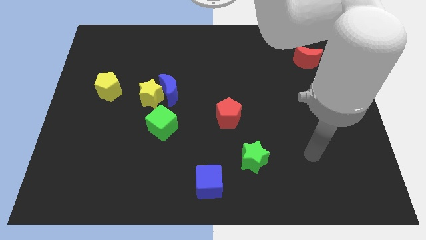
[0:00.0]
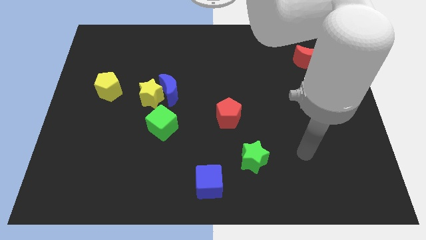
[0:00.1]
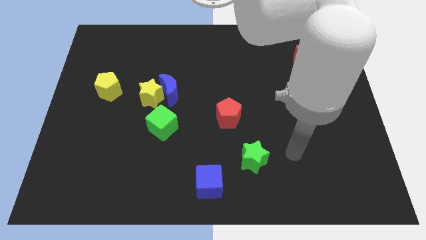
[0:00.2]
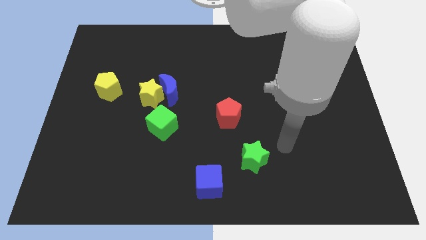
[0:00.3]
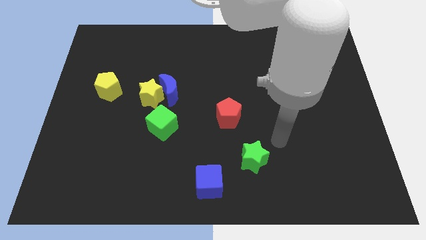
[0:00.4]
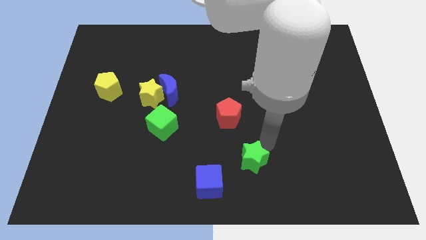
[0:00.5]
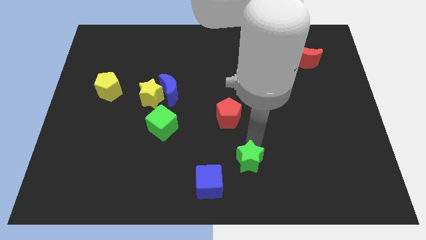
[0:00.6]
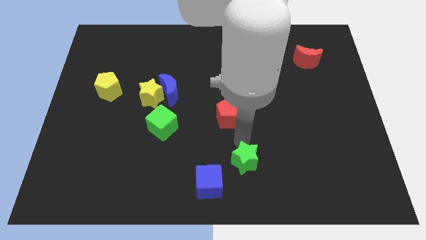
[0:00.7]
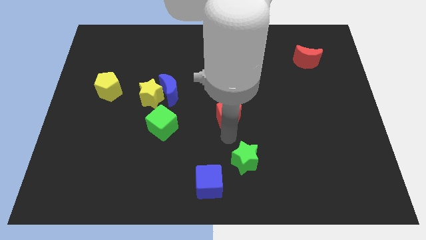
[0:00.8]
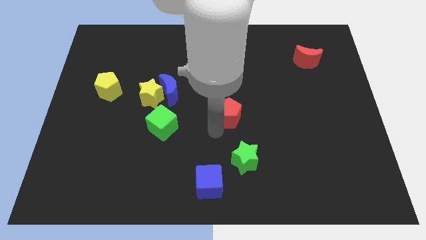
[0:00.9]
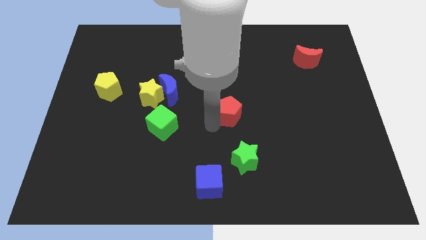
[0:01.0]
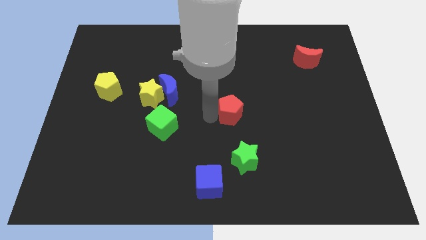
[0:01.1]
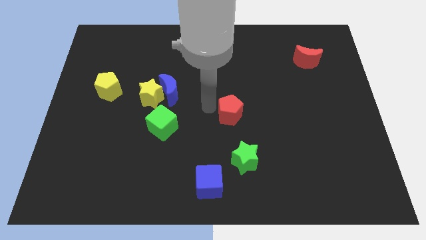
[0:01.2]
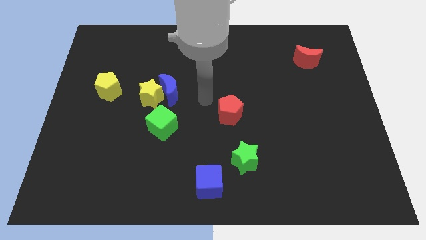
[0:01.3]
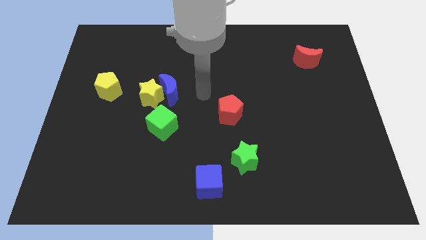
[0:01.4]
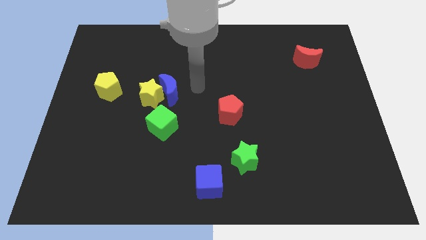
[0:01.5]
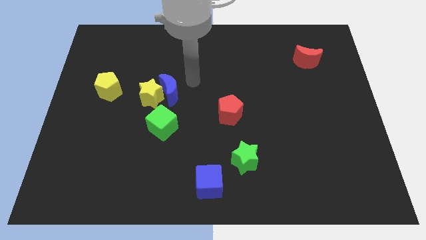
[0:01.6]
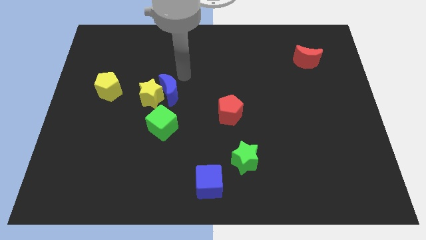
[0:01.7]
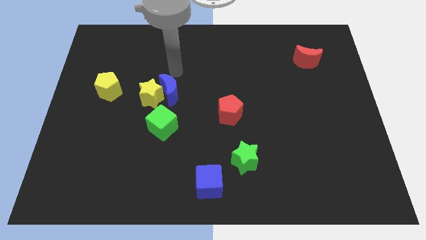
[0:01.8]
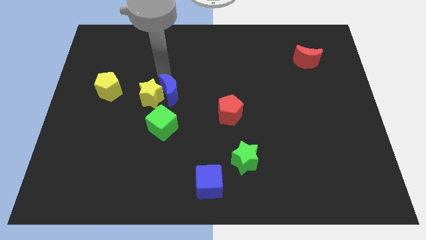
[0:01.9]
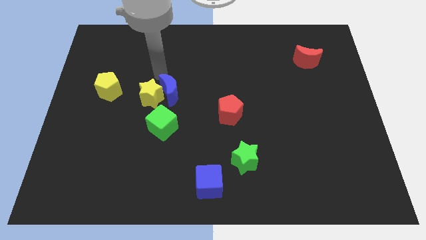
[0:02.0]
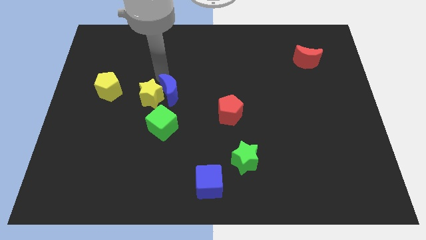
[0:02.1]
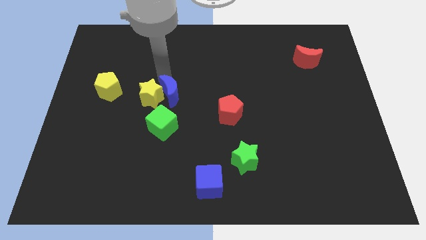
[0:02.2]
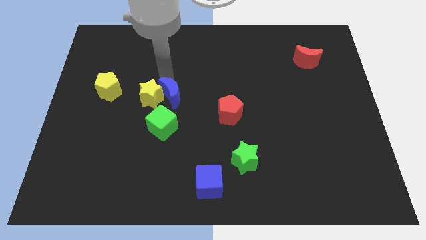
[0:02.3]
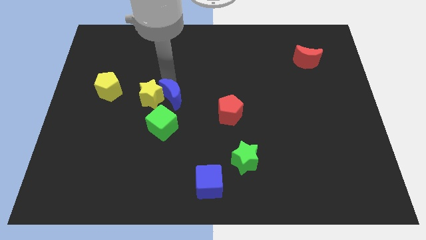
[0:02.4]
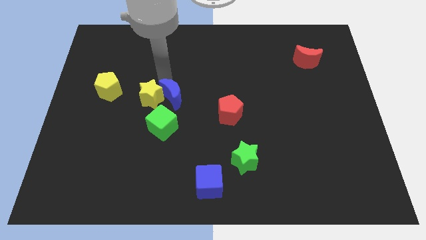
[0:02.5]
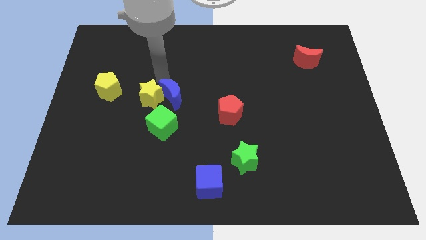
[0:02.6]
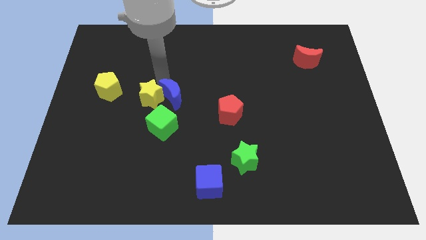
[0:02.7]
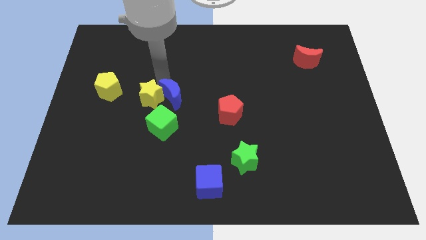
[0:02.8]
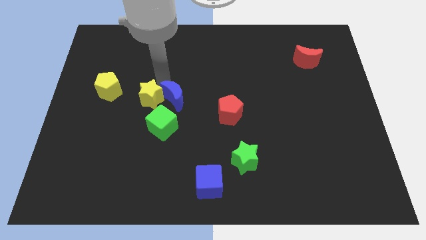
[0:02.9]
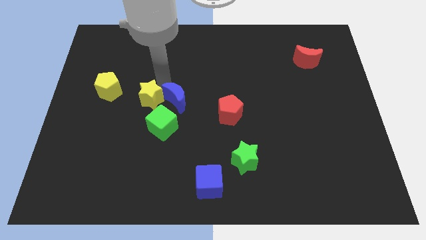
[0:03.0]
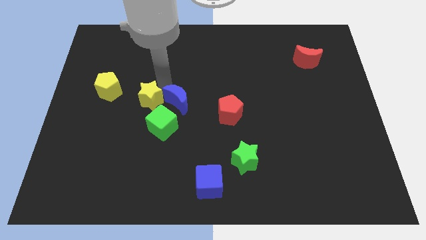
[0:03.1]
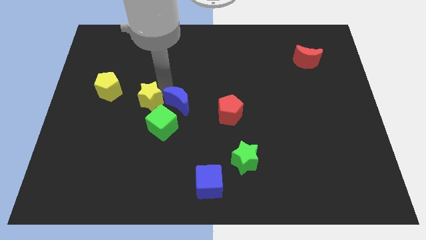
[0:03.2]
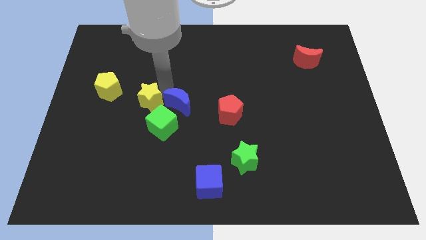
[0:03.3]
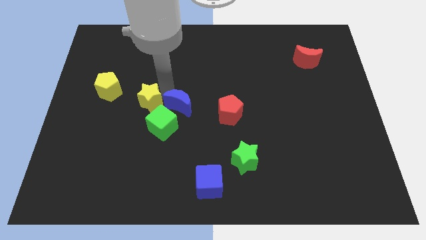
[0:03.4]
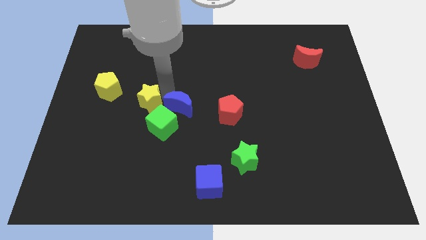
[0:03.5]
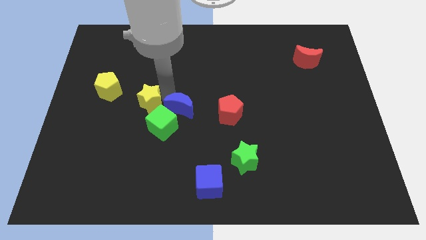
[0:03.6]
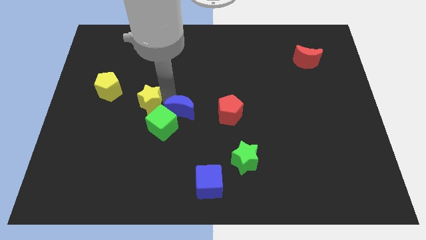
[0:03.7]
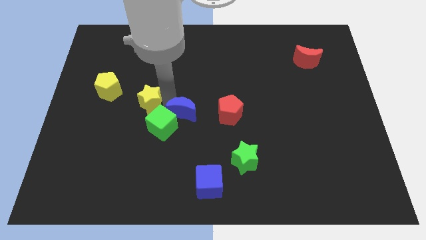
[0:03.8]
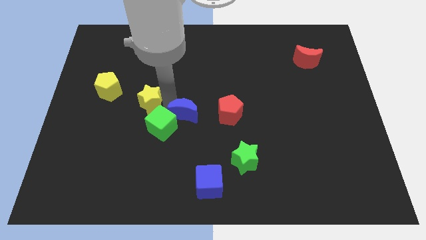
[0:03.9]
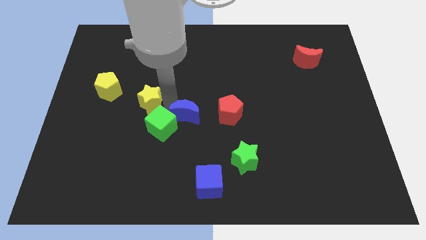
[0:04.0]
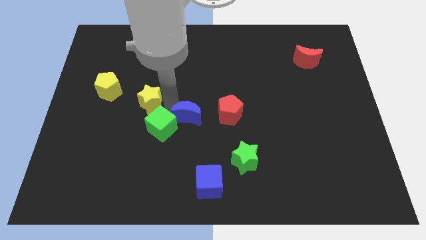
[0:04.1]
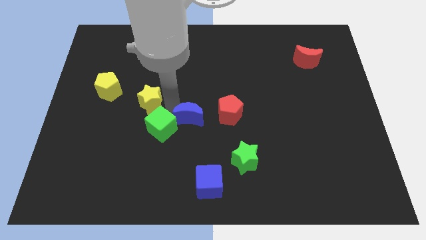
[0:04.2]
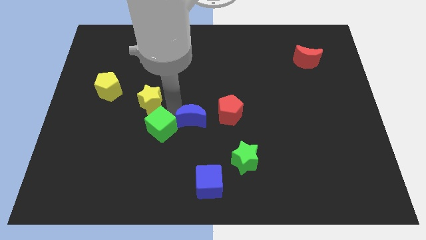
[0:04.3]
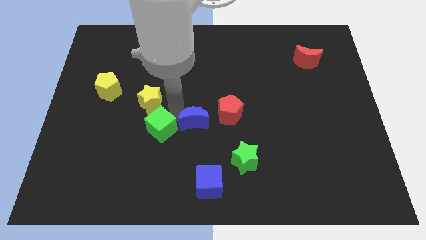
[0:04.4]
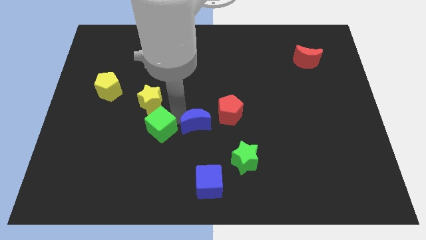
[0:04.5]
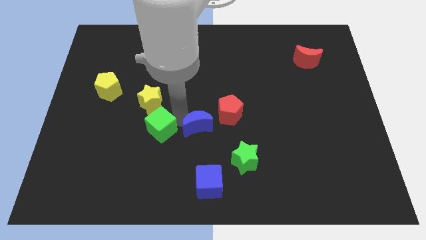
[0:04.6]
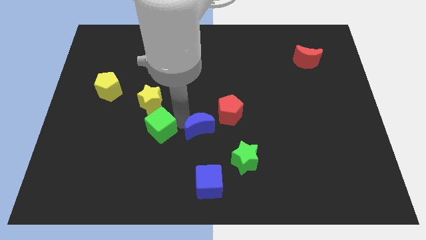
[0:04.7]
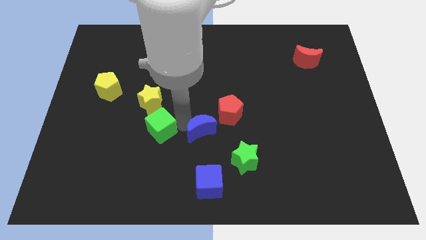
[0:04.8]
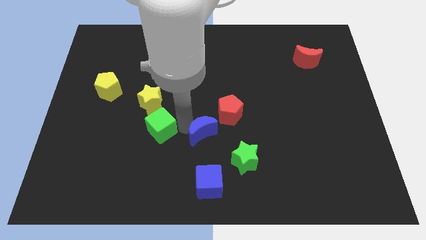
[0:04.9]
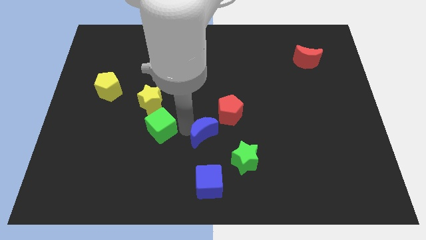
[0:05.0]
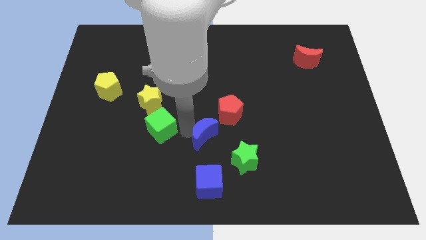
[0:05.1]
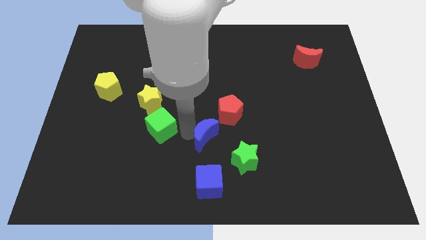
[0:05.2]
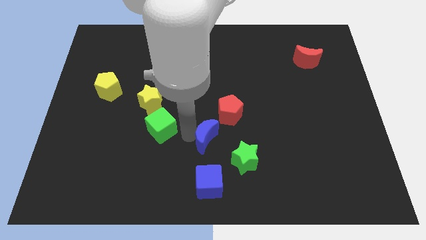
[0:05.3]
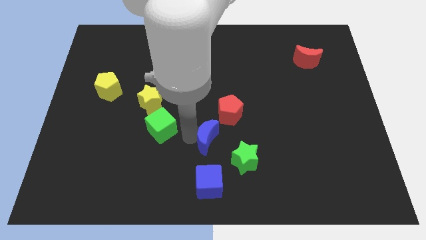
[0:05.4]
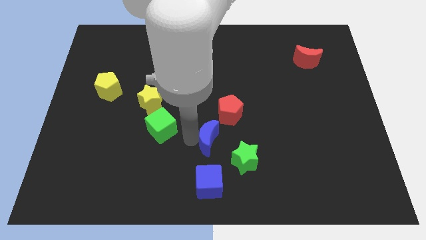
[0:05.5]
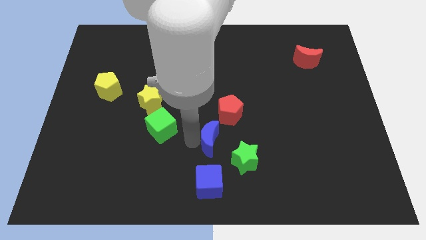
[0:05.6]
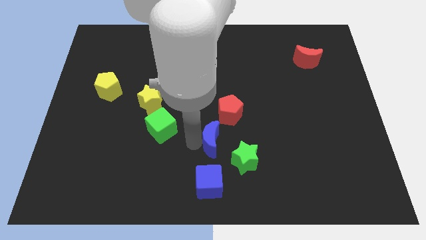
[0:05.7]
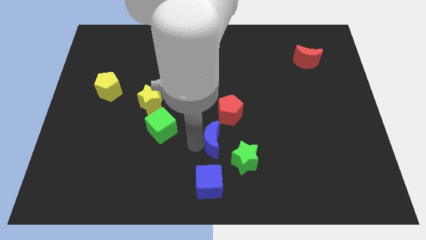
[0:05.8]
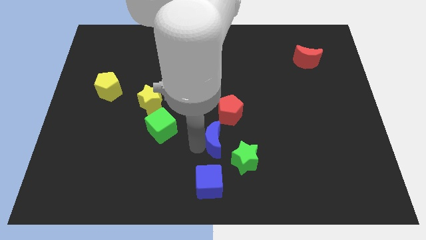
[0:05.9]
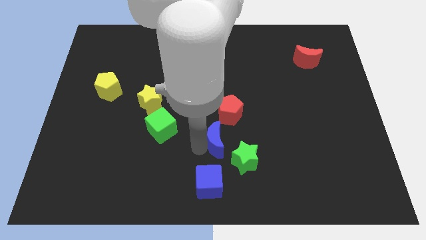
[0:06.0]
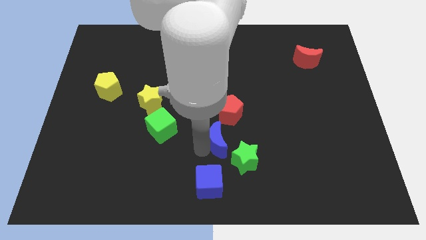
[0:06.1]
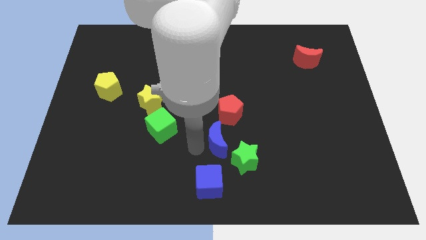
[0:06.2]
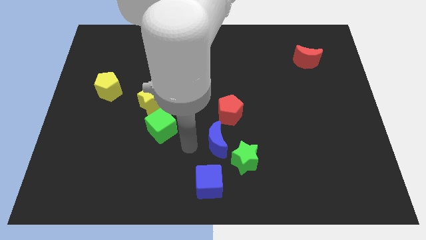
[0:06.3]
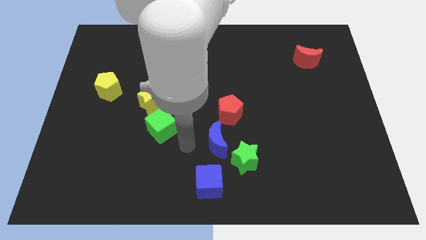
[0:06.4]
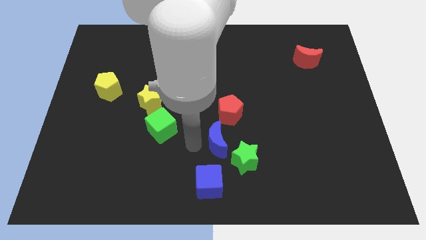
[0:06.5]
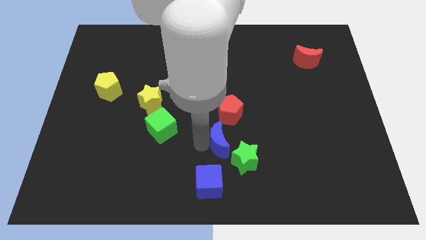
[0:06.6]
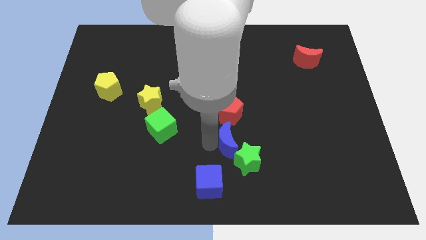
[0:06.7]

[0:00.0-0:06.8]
push the blue moon down and to the right

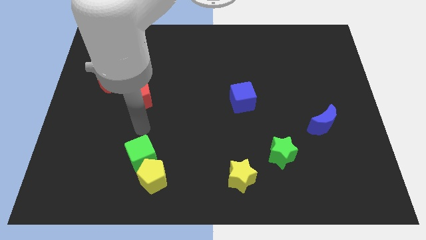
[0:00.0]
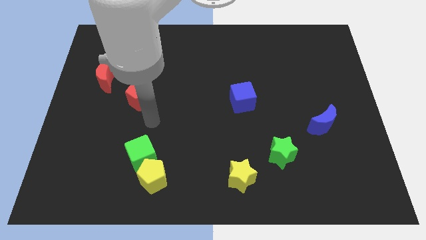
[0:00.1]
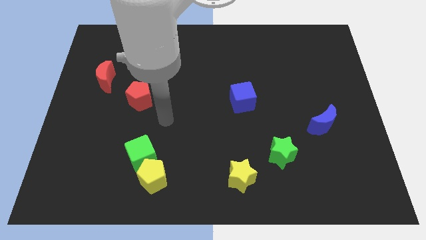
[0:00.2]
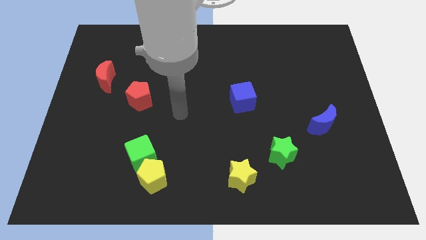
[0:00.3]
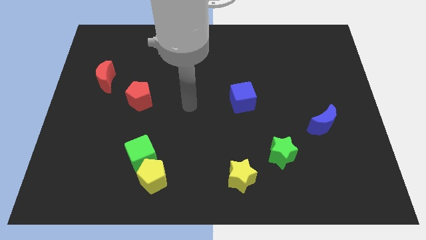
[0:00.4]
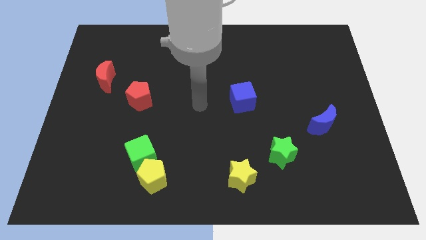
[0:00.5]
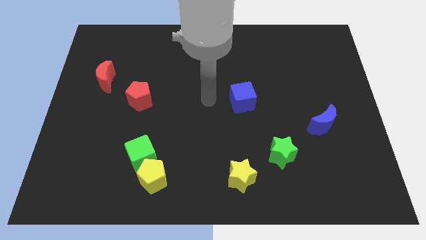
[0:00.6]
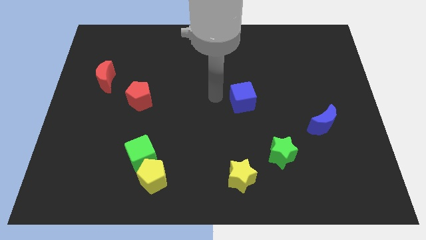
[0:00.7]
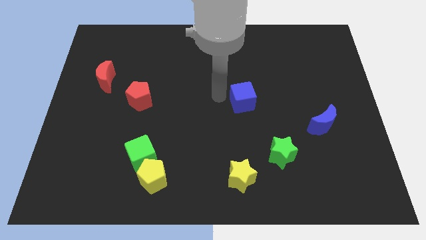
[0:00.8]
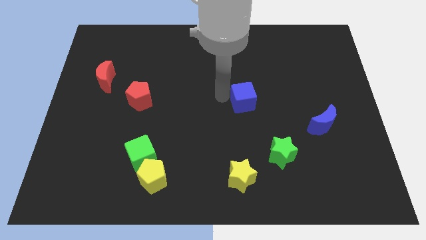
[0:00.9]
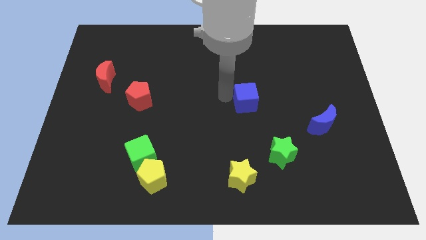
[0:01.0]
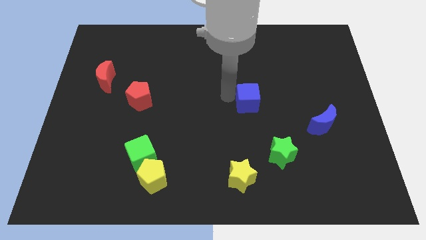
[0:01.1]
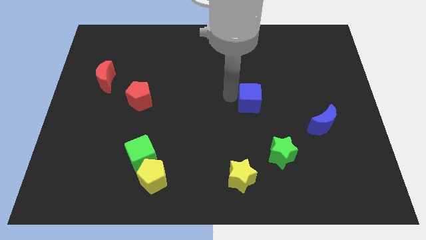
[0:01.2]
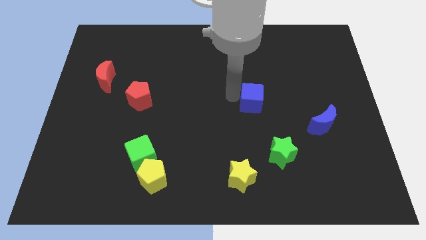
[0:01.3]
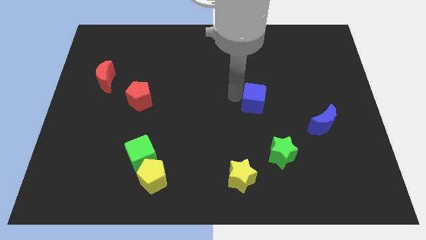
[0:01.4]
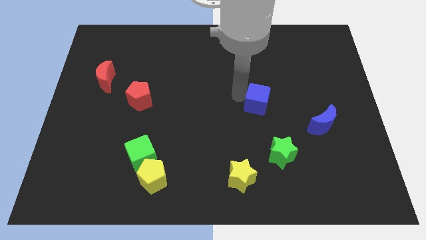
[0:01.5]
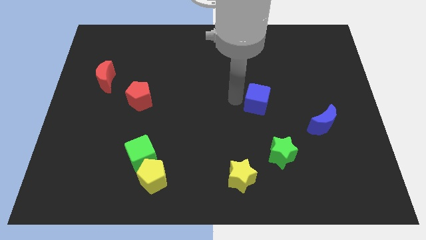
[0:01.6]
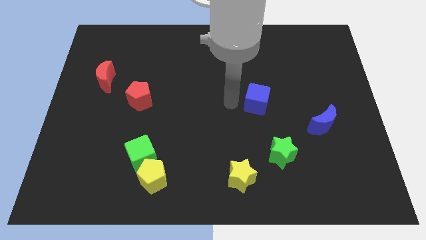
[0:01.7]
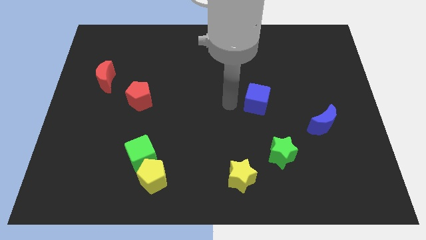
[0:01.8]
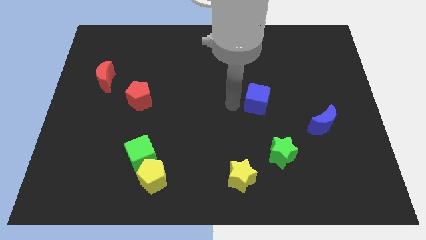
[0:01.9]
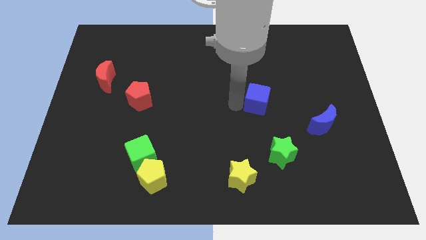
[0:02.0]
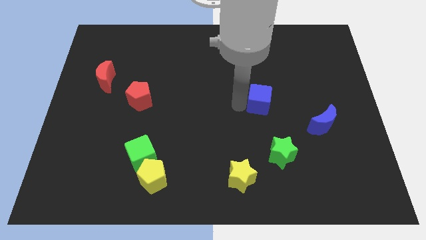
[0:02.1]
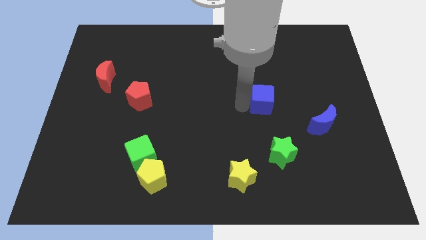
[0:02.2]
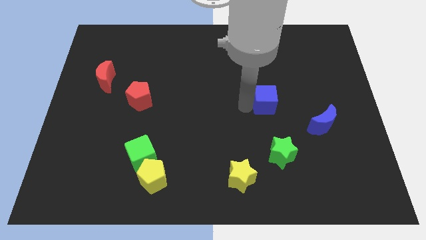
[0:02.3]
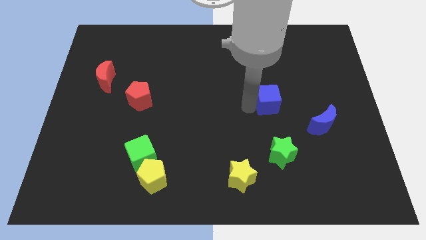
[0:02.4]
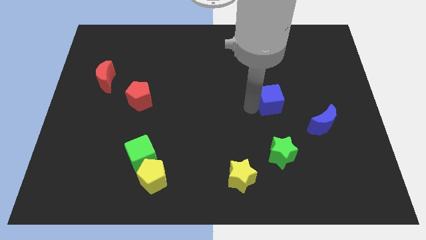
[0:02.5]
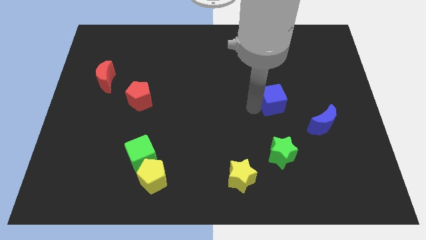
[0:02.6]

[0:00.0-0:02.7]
move the blue cube a little bit to the right
